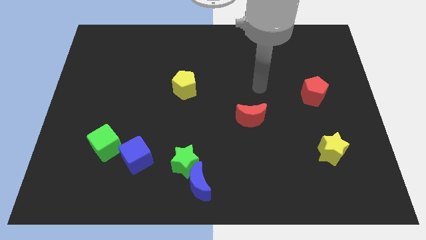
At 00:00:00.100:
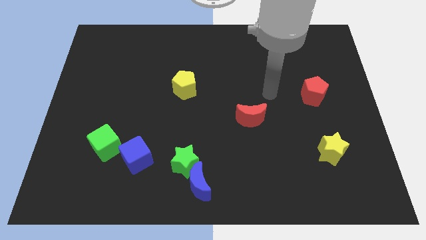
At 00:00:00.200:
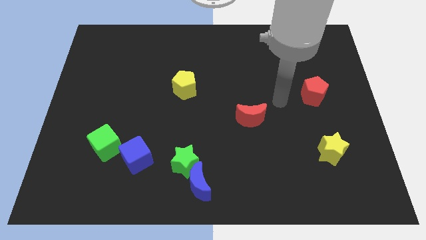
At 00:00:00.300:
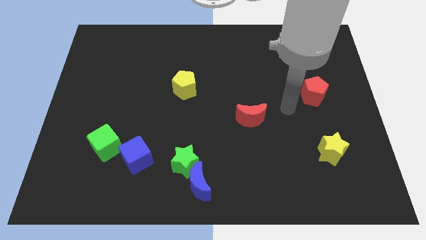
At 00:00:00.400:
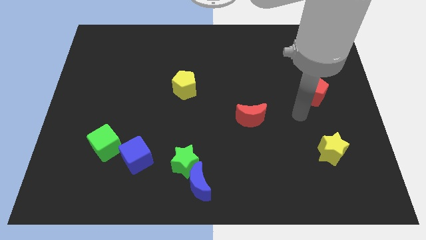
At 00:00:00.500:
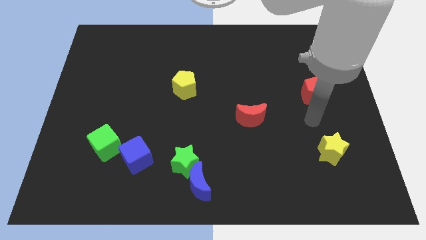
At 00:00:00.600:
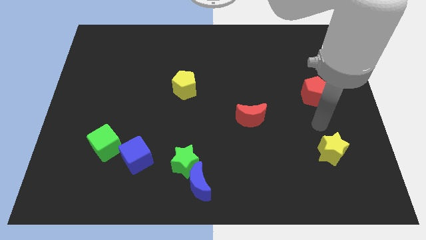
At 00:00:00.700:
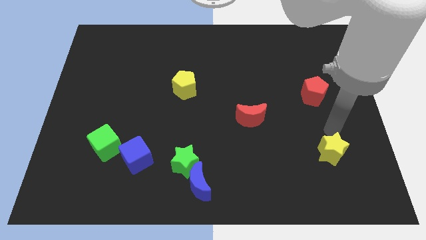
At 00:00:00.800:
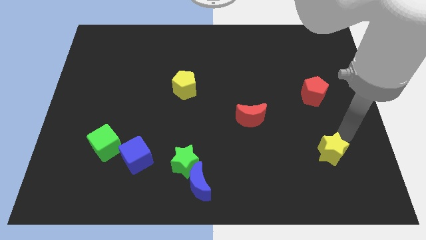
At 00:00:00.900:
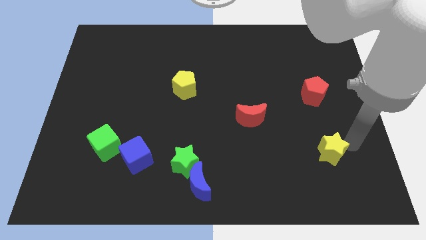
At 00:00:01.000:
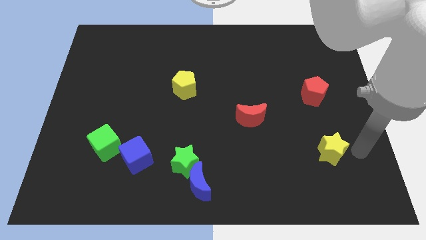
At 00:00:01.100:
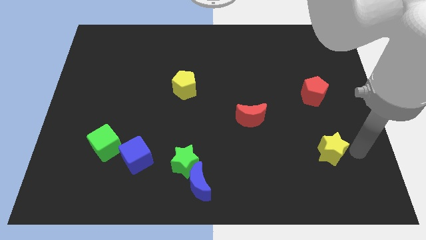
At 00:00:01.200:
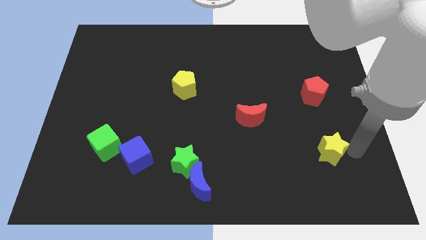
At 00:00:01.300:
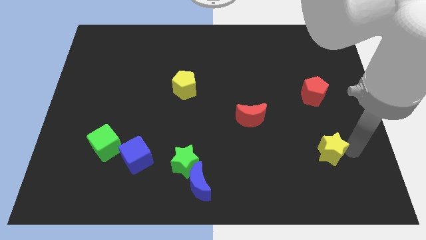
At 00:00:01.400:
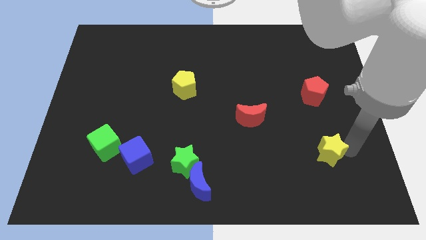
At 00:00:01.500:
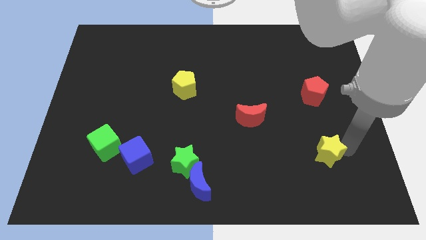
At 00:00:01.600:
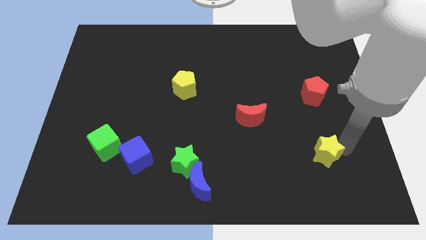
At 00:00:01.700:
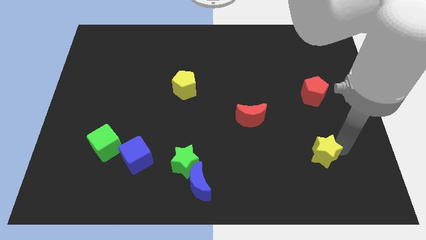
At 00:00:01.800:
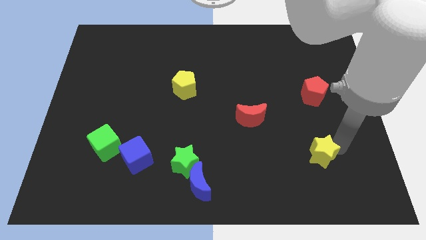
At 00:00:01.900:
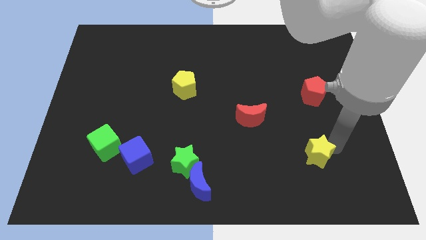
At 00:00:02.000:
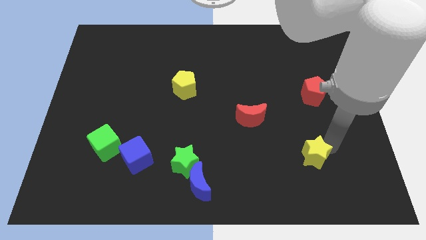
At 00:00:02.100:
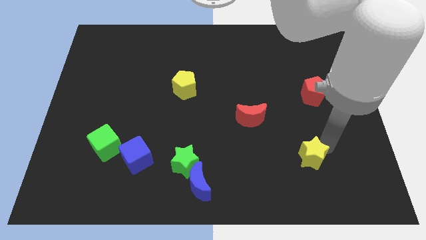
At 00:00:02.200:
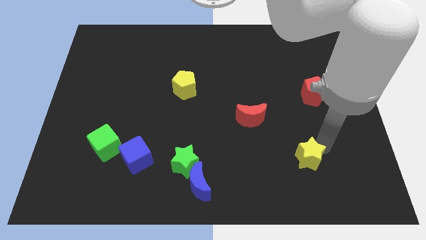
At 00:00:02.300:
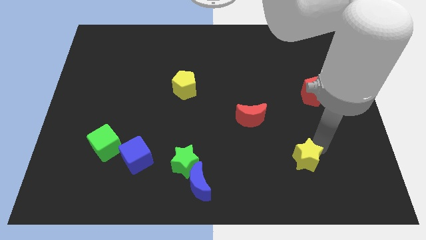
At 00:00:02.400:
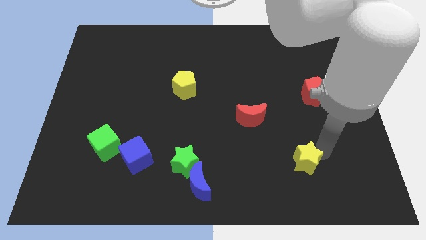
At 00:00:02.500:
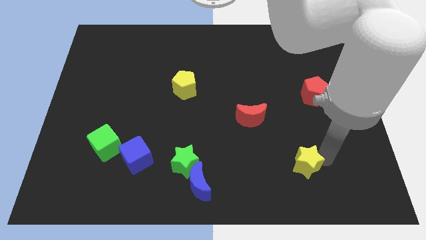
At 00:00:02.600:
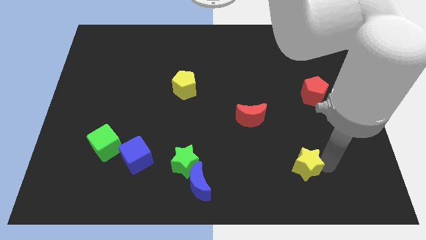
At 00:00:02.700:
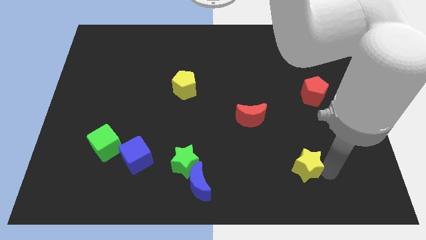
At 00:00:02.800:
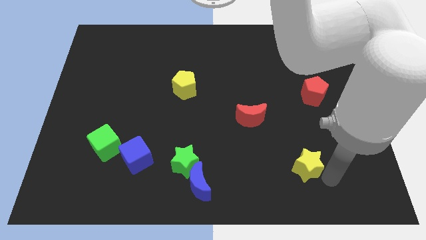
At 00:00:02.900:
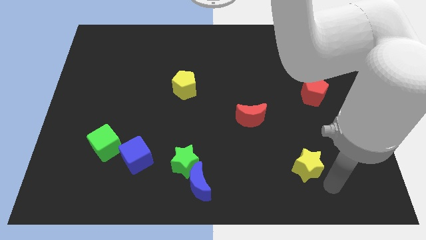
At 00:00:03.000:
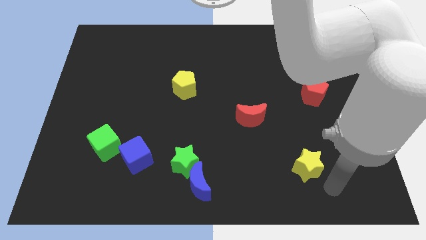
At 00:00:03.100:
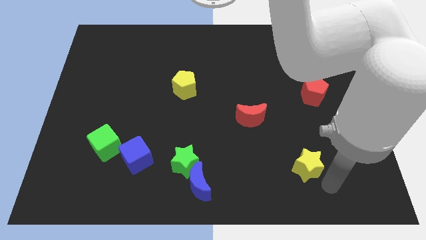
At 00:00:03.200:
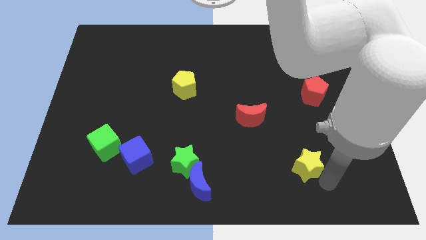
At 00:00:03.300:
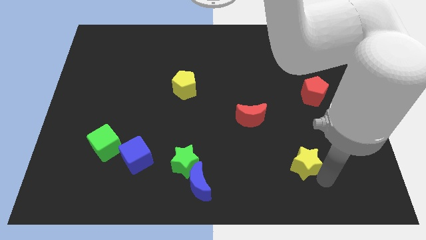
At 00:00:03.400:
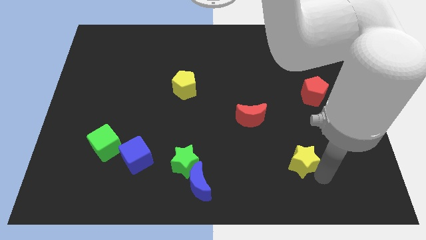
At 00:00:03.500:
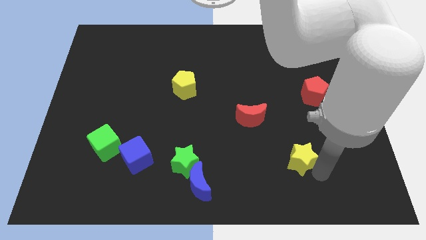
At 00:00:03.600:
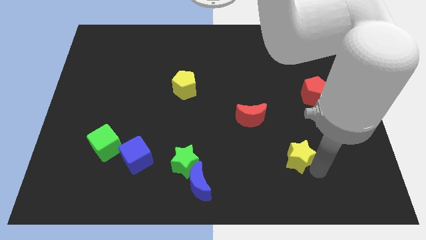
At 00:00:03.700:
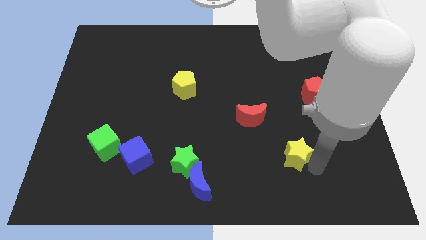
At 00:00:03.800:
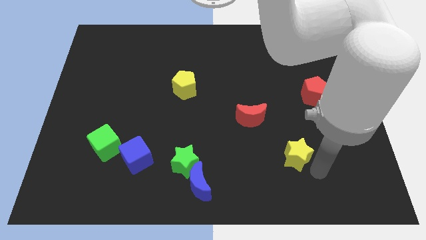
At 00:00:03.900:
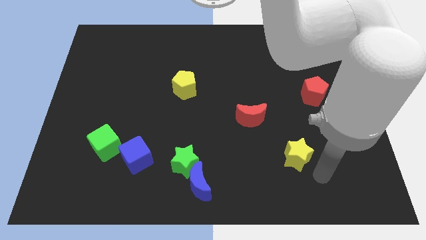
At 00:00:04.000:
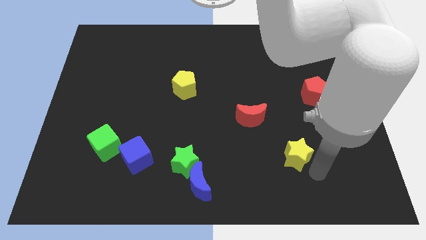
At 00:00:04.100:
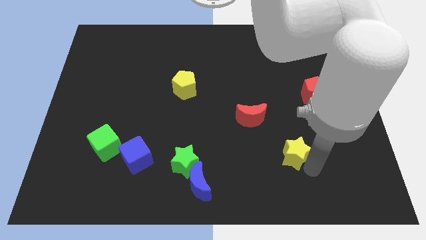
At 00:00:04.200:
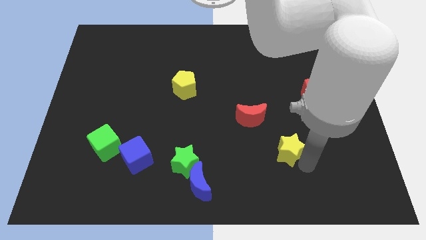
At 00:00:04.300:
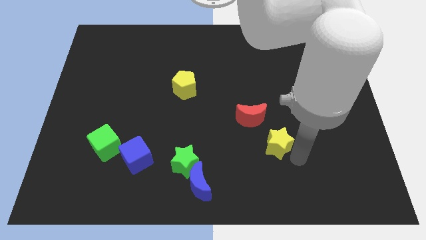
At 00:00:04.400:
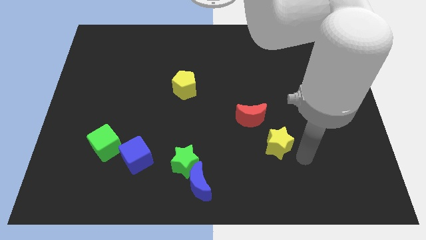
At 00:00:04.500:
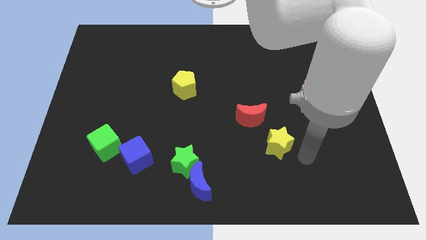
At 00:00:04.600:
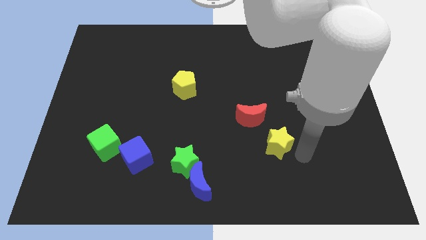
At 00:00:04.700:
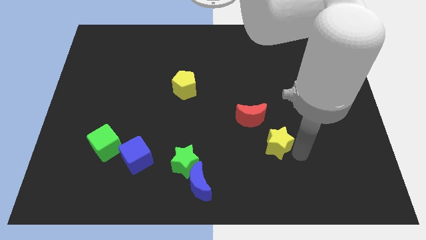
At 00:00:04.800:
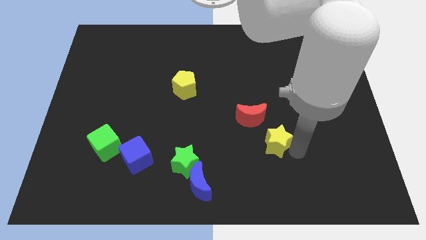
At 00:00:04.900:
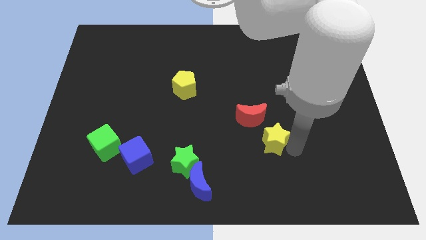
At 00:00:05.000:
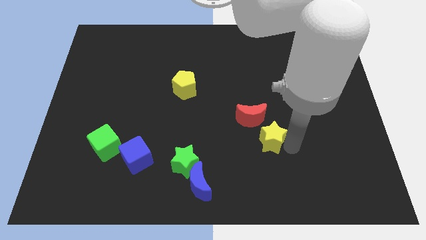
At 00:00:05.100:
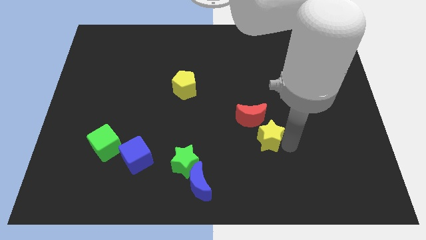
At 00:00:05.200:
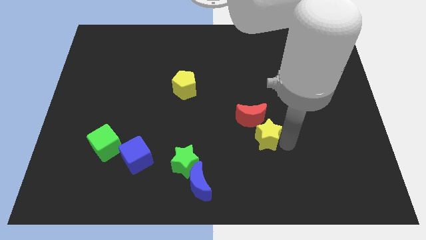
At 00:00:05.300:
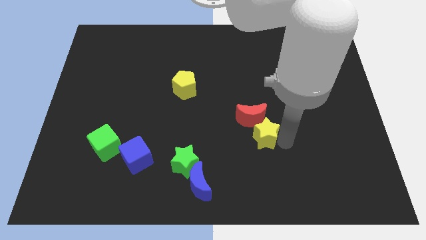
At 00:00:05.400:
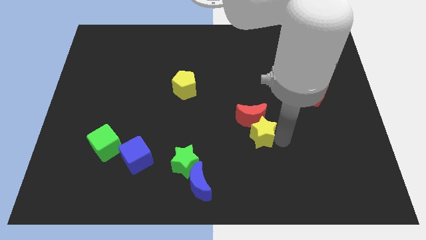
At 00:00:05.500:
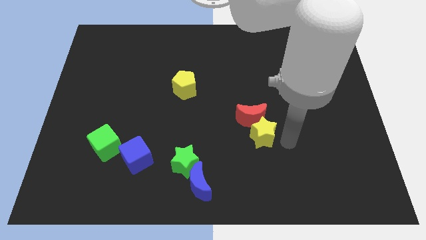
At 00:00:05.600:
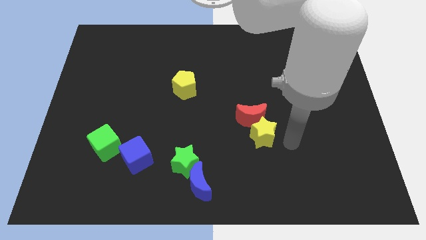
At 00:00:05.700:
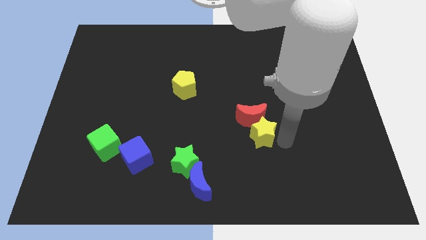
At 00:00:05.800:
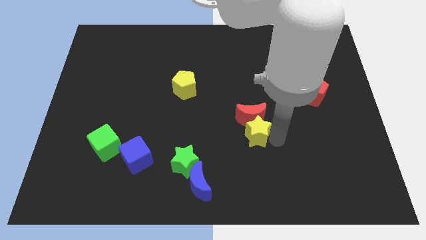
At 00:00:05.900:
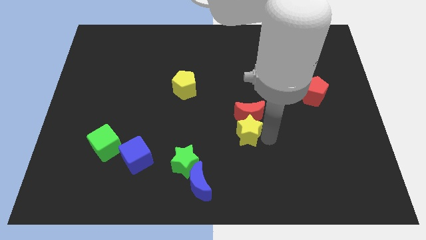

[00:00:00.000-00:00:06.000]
move the yellow star to the middle

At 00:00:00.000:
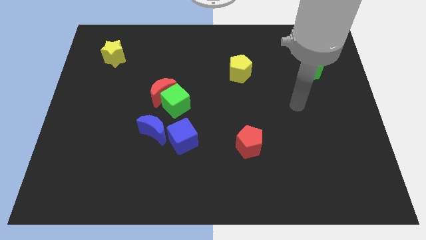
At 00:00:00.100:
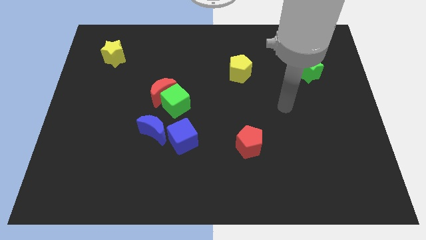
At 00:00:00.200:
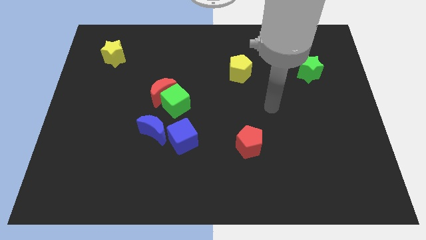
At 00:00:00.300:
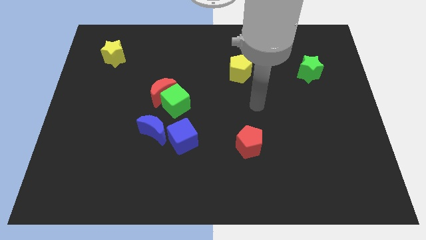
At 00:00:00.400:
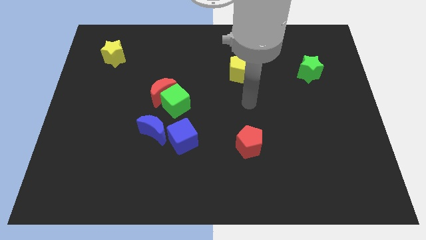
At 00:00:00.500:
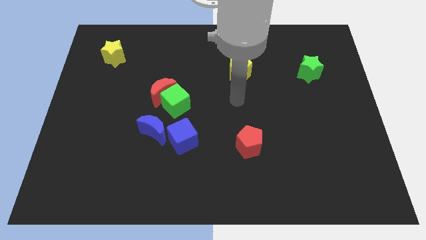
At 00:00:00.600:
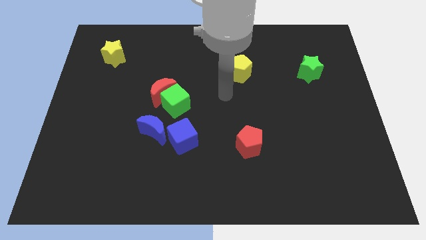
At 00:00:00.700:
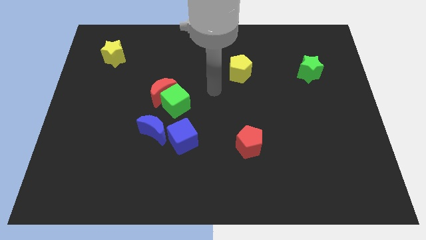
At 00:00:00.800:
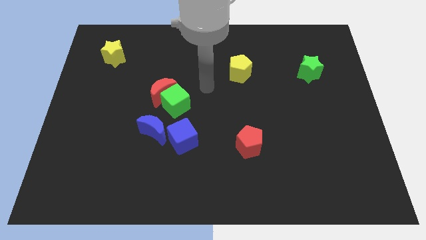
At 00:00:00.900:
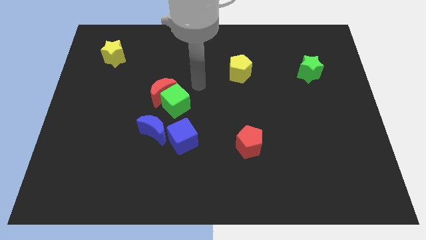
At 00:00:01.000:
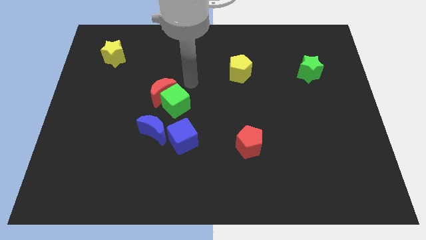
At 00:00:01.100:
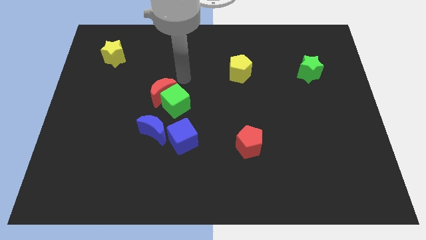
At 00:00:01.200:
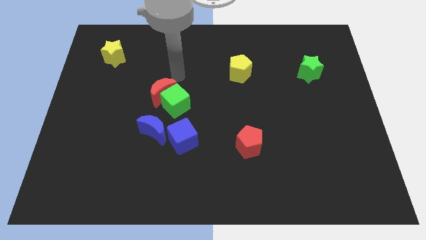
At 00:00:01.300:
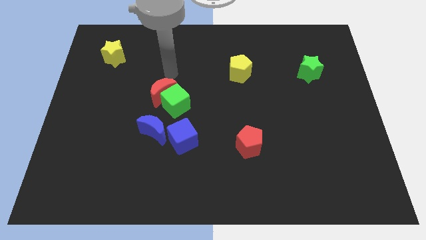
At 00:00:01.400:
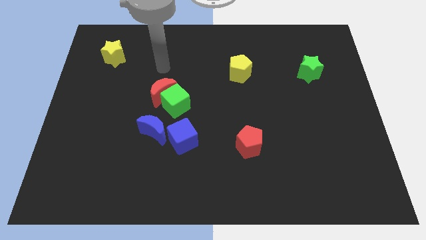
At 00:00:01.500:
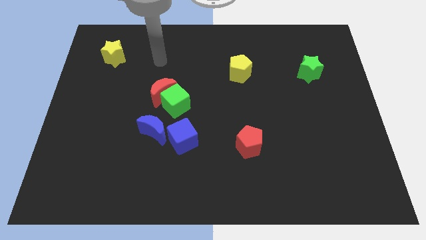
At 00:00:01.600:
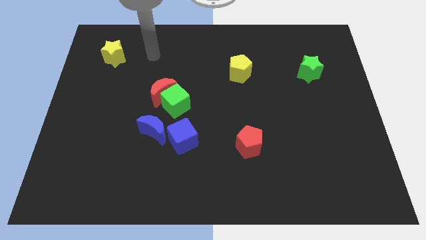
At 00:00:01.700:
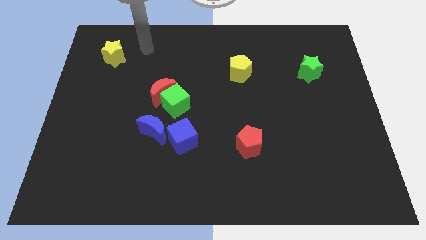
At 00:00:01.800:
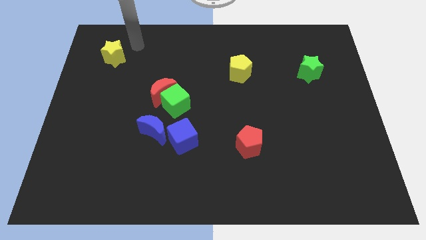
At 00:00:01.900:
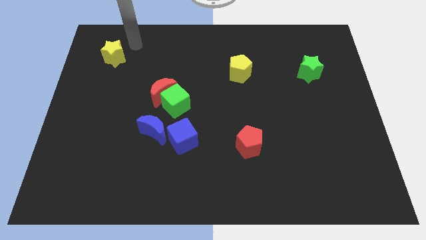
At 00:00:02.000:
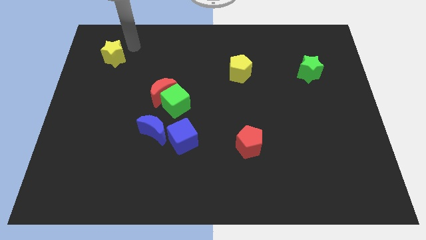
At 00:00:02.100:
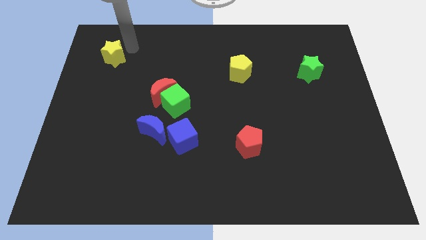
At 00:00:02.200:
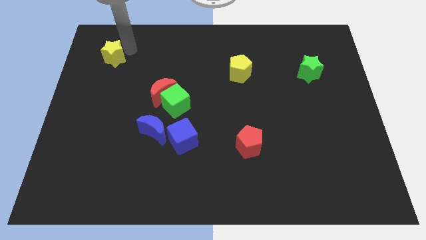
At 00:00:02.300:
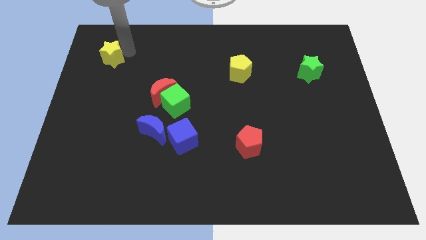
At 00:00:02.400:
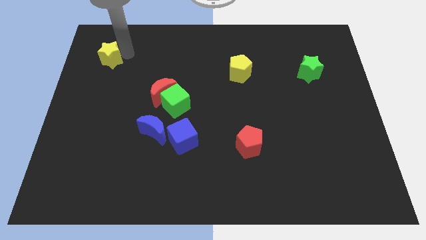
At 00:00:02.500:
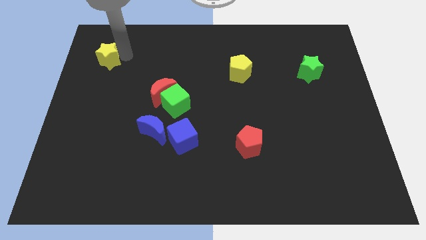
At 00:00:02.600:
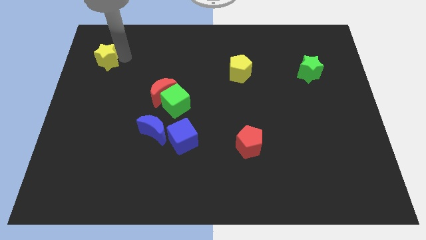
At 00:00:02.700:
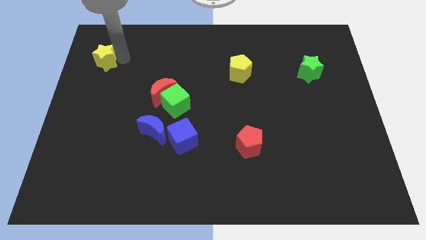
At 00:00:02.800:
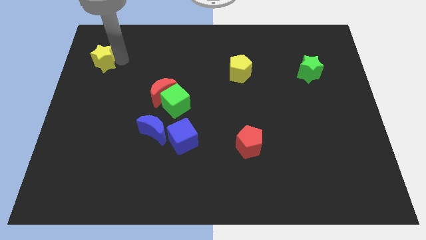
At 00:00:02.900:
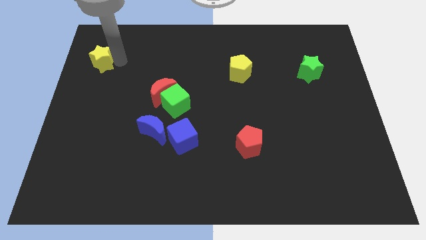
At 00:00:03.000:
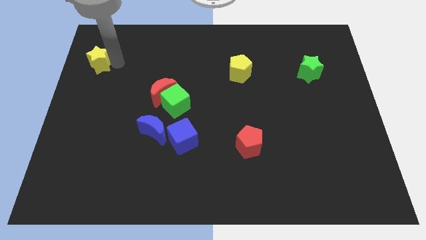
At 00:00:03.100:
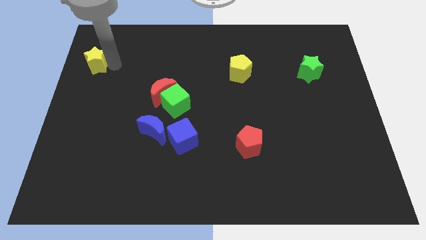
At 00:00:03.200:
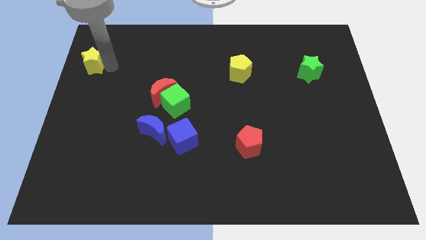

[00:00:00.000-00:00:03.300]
push the yellow star to the center left
